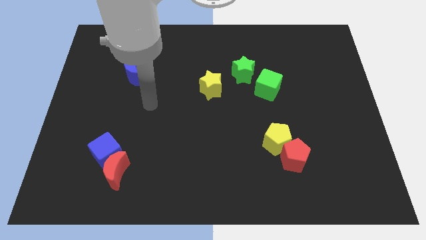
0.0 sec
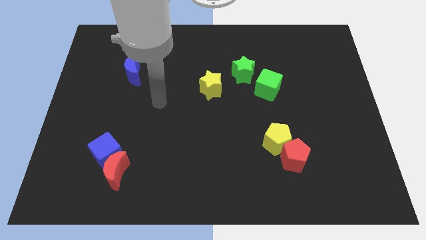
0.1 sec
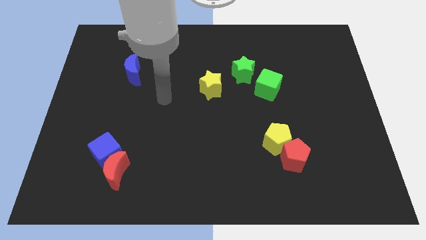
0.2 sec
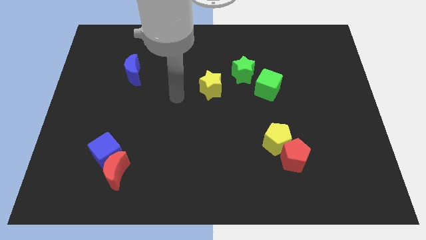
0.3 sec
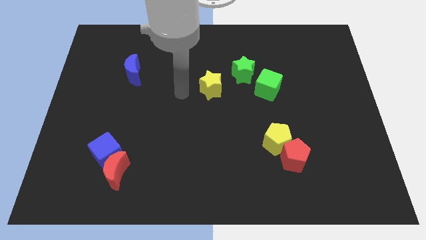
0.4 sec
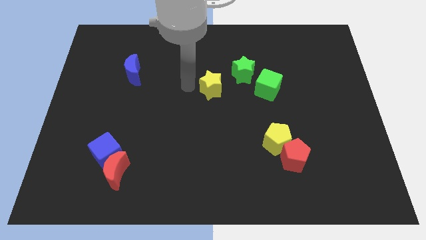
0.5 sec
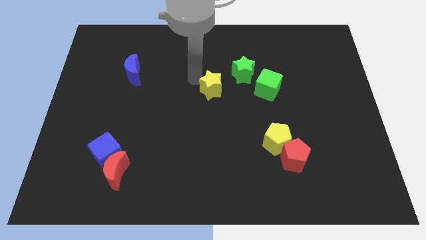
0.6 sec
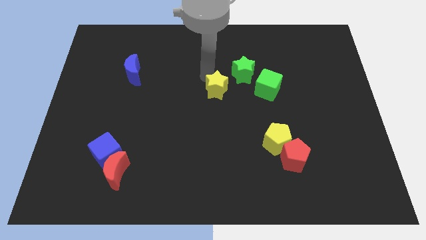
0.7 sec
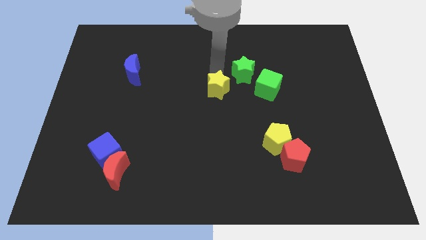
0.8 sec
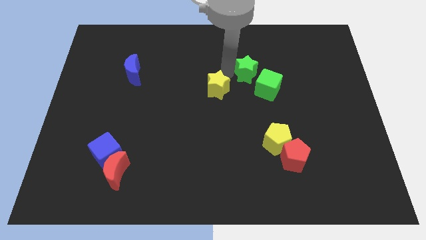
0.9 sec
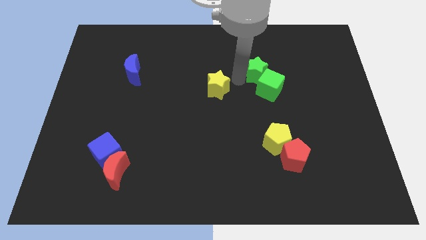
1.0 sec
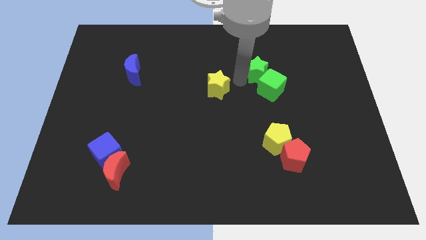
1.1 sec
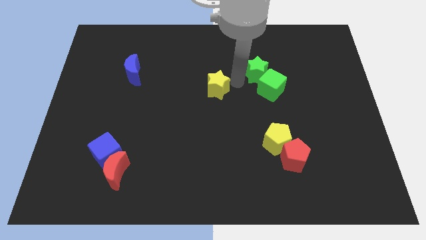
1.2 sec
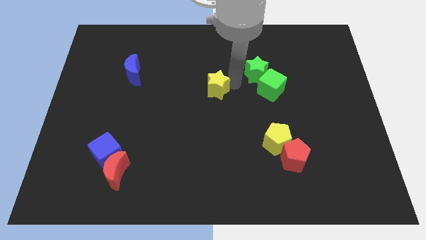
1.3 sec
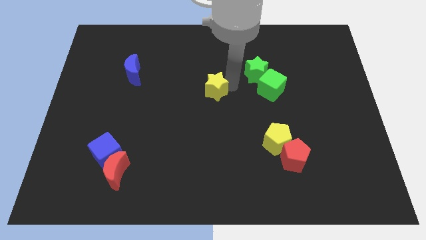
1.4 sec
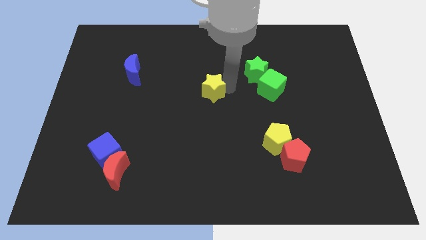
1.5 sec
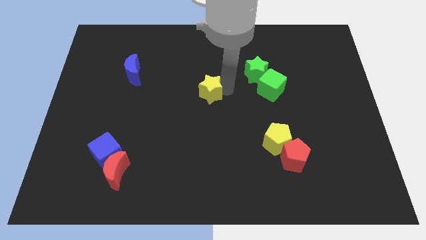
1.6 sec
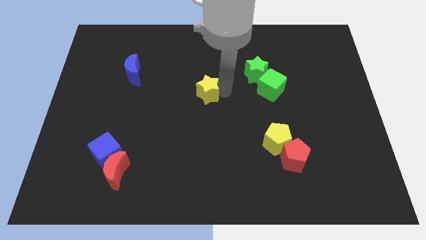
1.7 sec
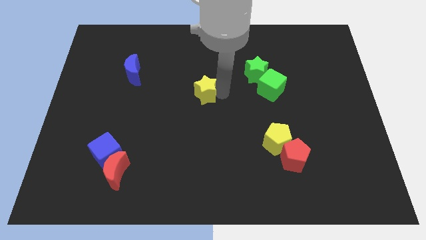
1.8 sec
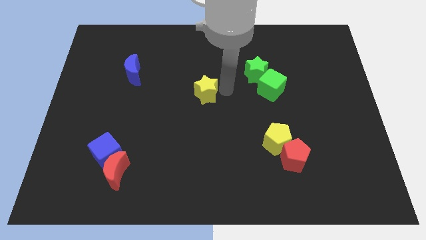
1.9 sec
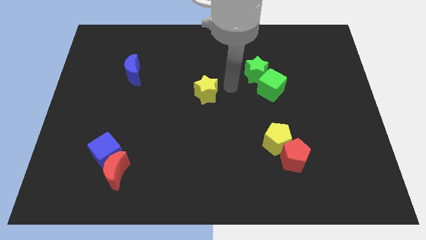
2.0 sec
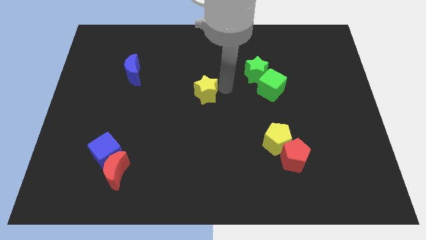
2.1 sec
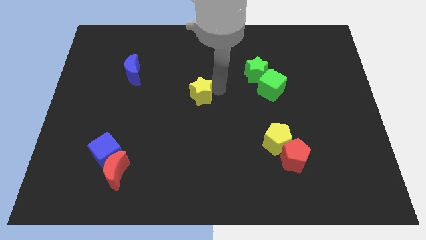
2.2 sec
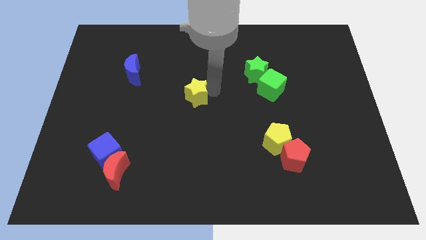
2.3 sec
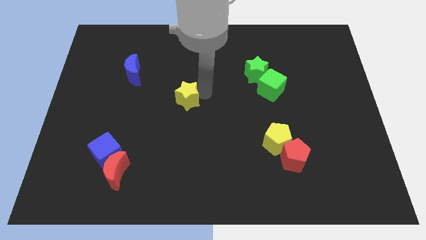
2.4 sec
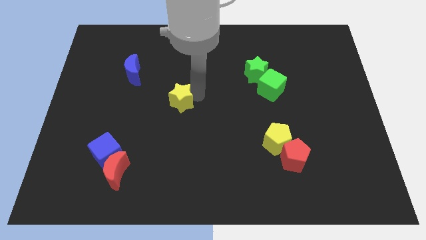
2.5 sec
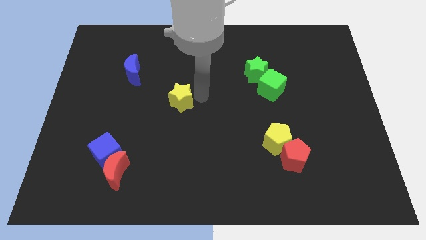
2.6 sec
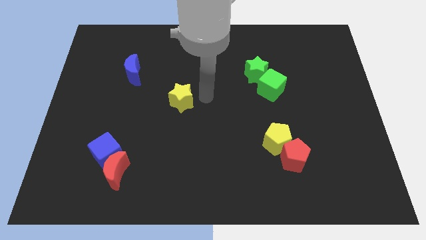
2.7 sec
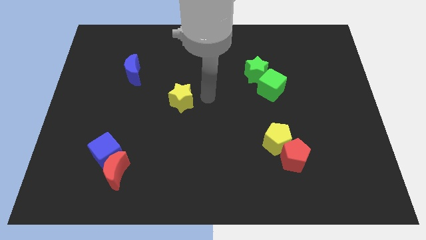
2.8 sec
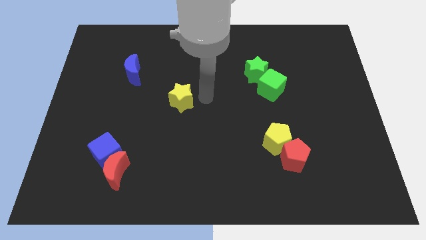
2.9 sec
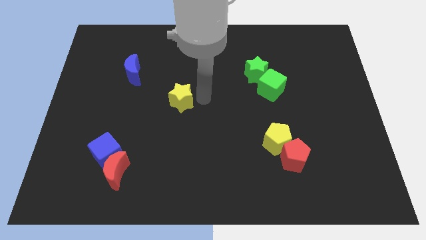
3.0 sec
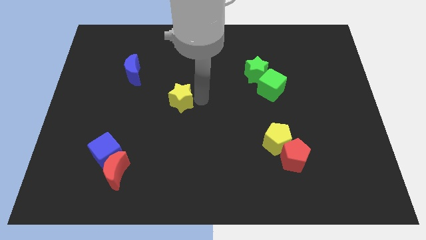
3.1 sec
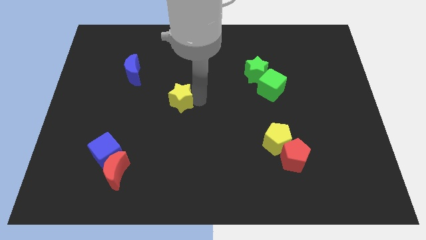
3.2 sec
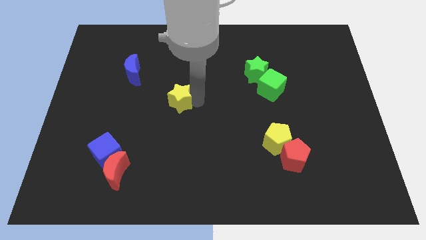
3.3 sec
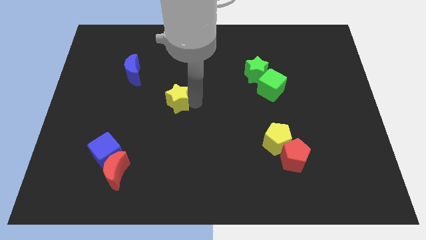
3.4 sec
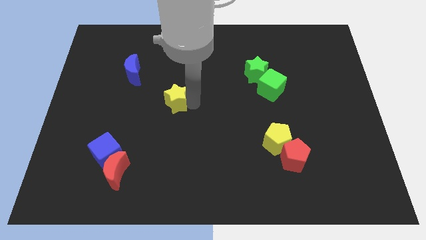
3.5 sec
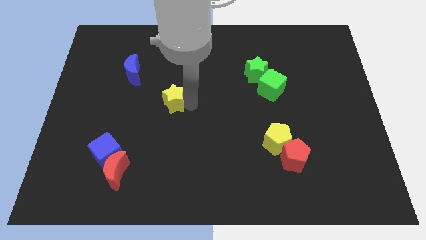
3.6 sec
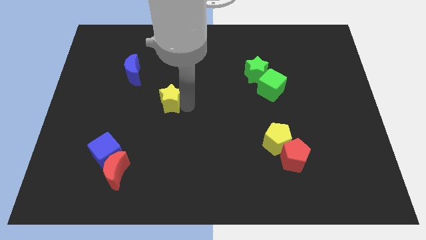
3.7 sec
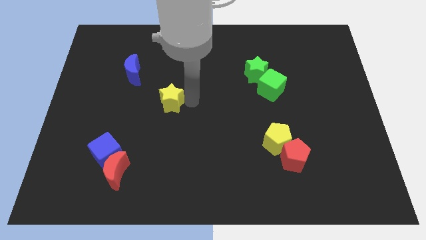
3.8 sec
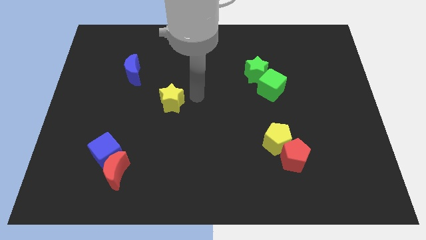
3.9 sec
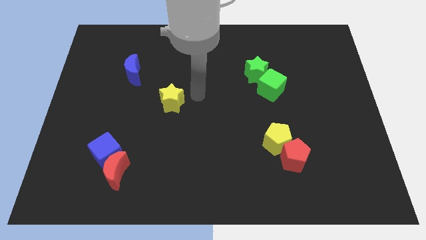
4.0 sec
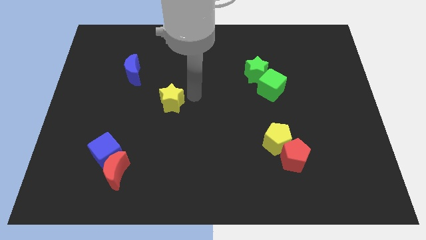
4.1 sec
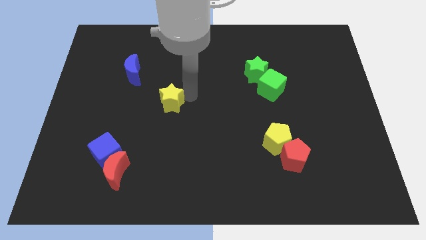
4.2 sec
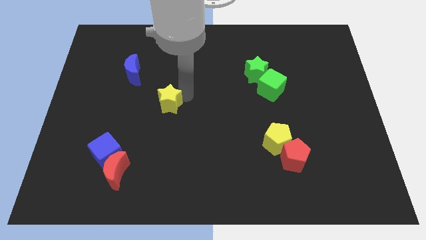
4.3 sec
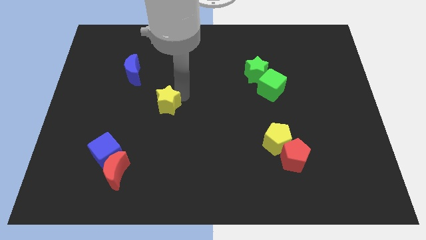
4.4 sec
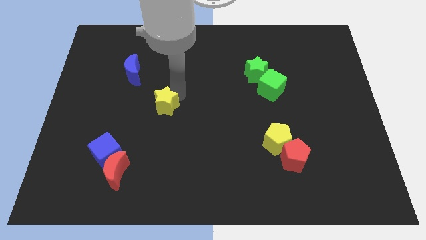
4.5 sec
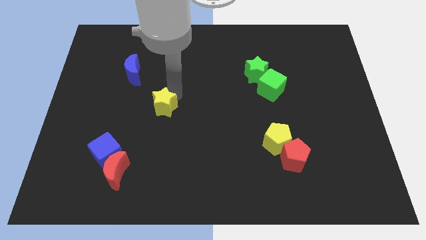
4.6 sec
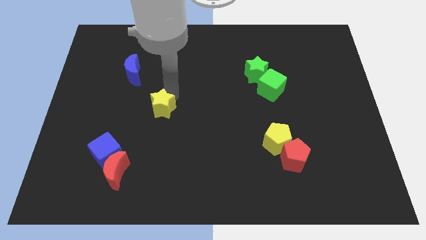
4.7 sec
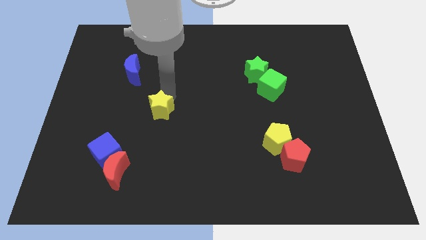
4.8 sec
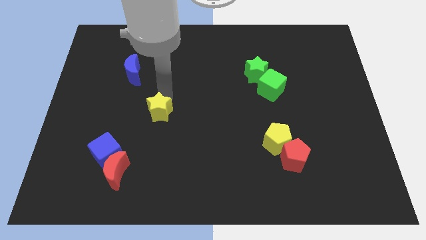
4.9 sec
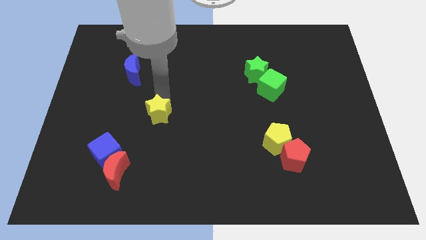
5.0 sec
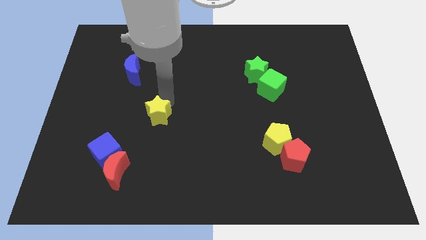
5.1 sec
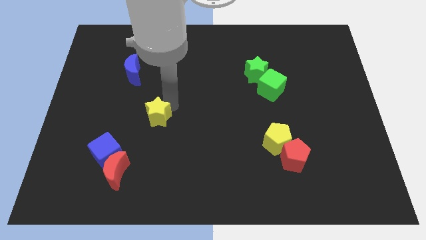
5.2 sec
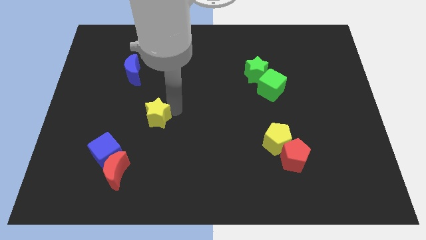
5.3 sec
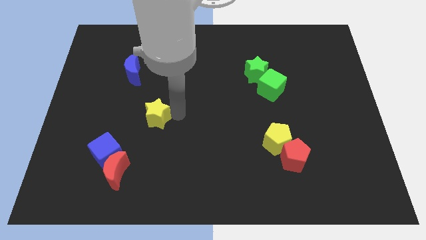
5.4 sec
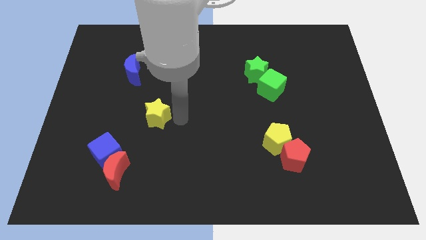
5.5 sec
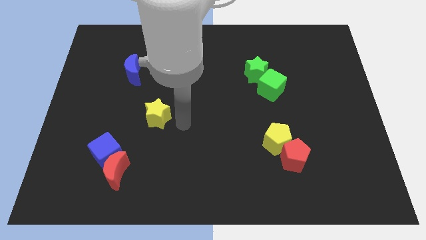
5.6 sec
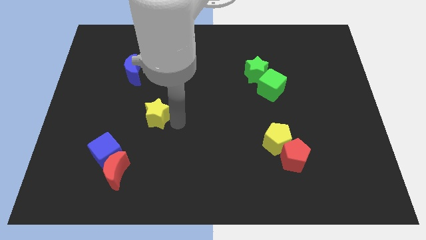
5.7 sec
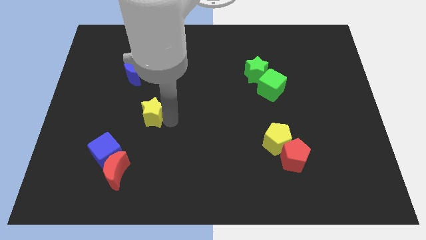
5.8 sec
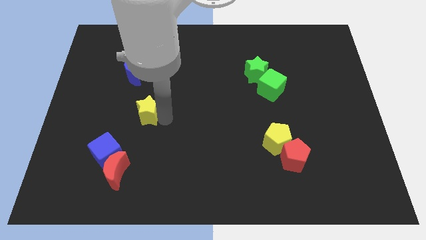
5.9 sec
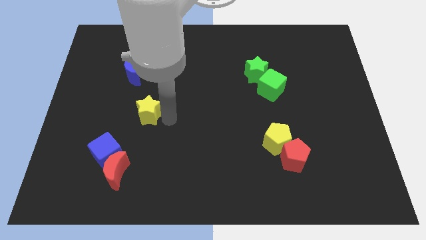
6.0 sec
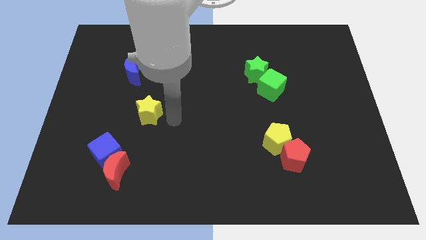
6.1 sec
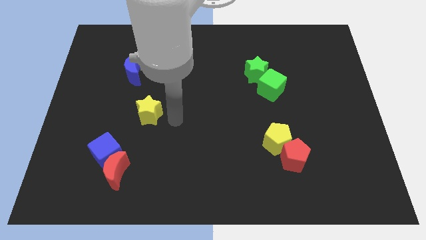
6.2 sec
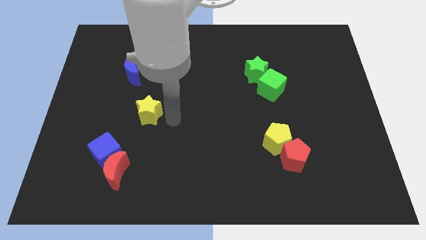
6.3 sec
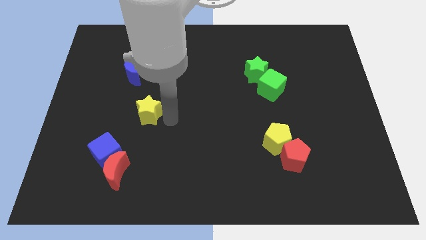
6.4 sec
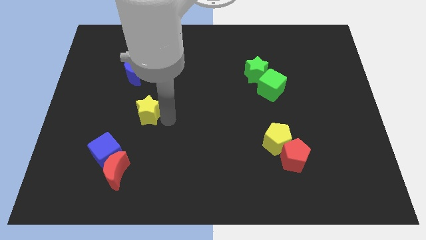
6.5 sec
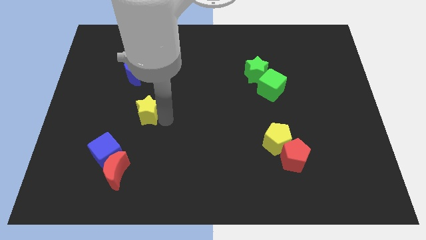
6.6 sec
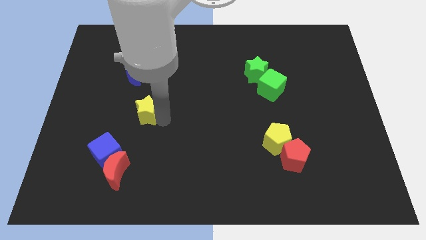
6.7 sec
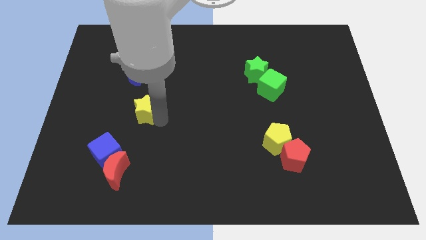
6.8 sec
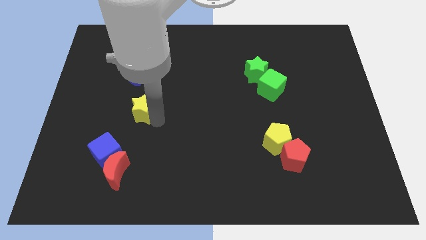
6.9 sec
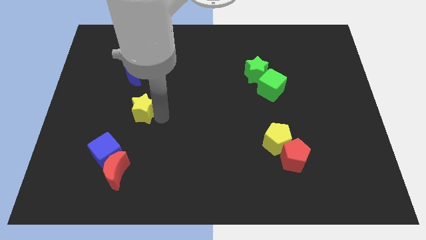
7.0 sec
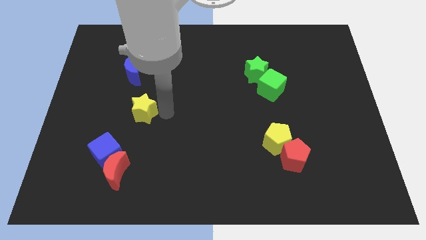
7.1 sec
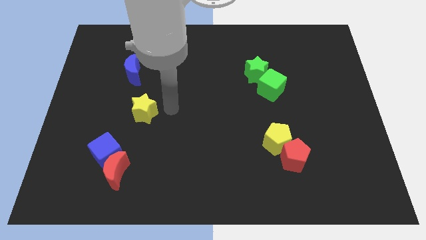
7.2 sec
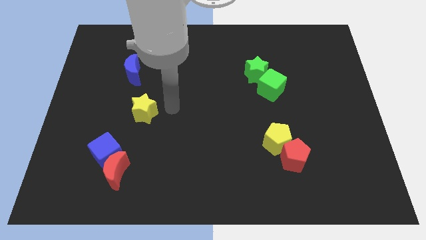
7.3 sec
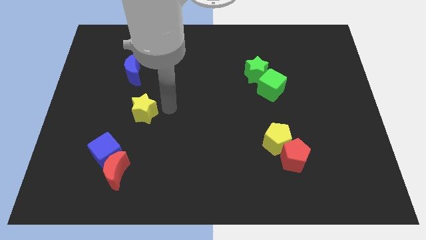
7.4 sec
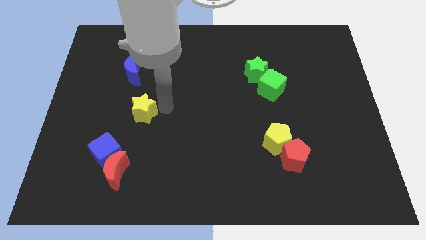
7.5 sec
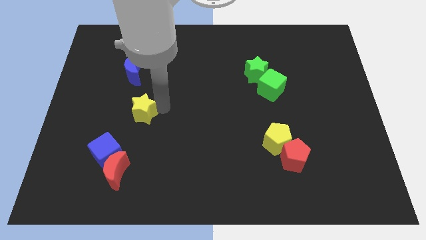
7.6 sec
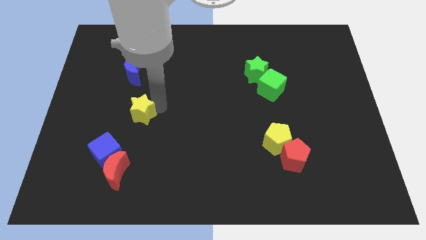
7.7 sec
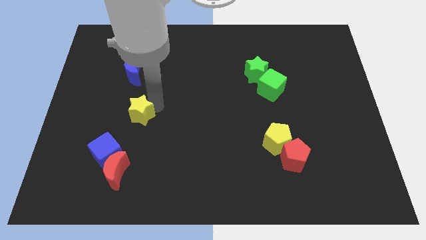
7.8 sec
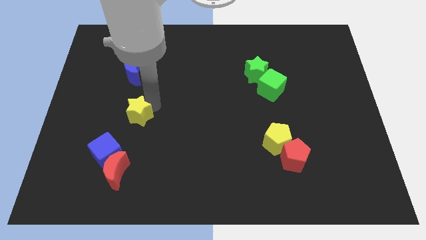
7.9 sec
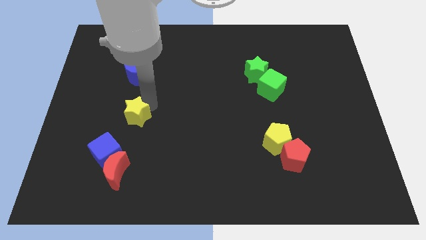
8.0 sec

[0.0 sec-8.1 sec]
slide the yellow star above the blue cube
